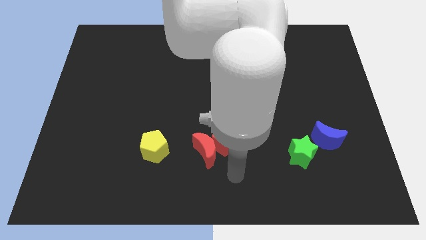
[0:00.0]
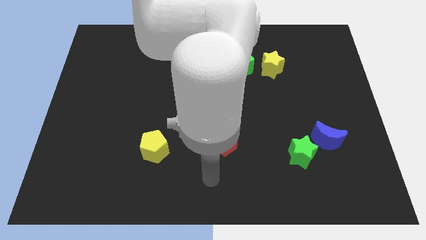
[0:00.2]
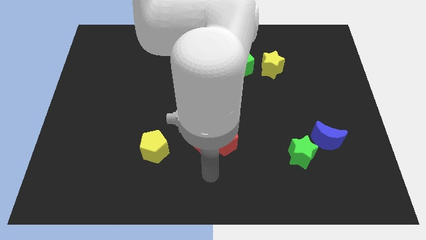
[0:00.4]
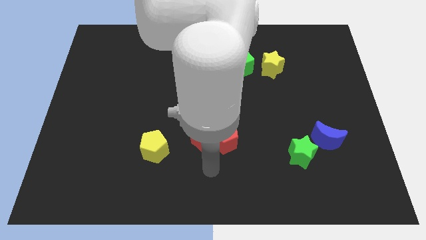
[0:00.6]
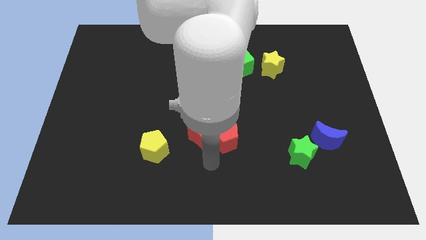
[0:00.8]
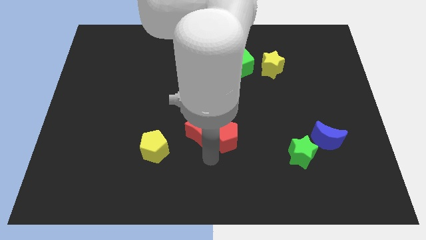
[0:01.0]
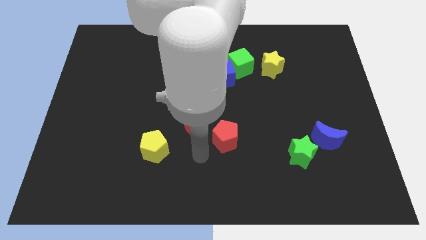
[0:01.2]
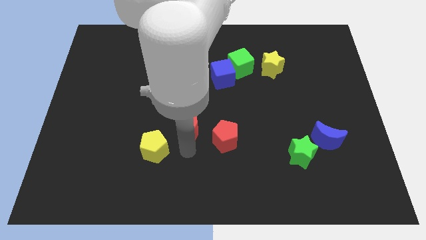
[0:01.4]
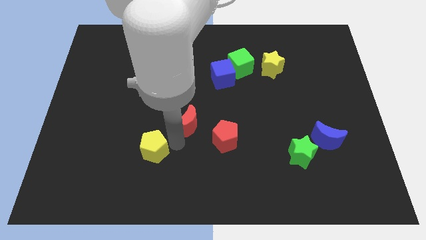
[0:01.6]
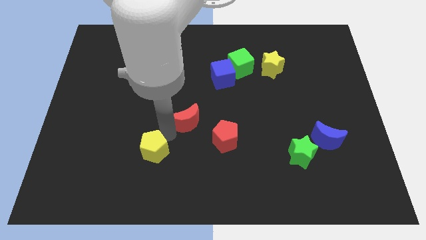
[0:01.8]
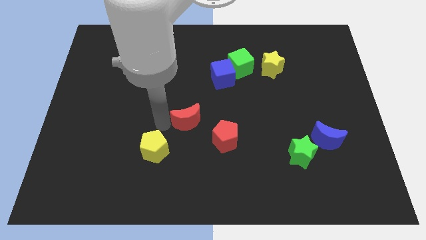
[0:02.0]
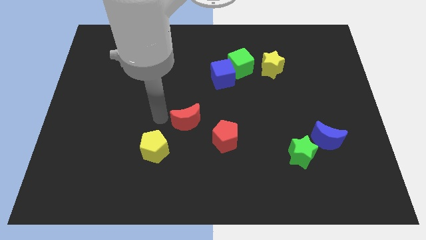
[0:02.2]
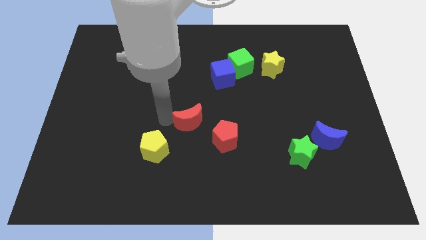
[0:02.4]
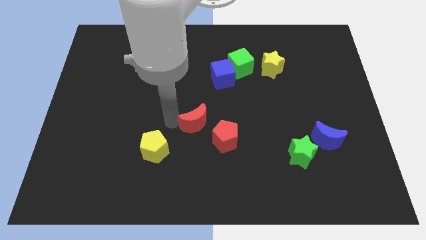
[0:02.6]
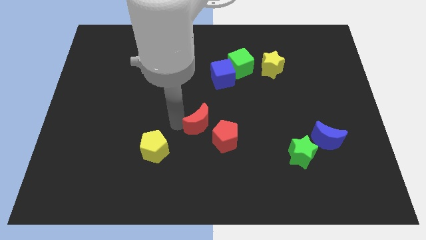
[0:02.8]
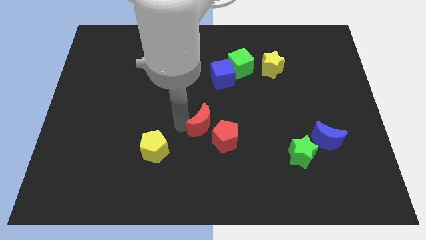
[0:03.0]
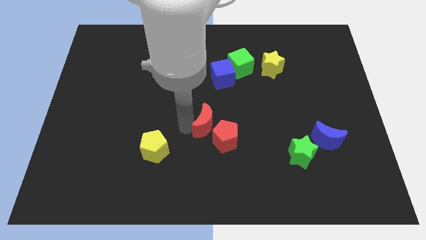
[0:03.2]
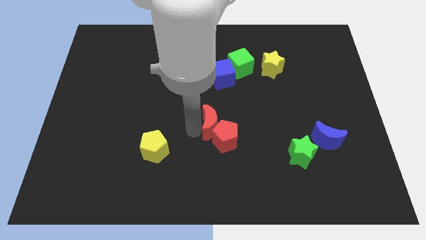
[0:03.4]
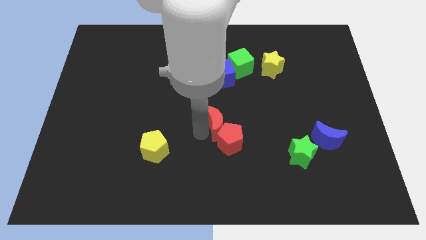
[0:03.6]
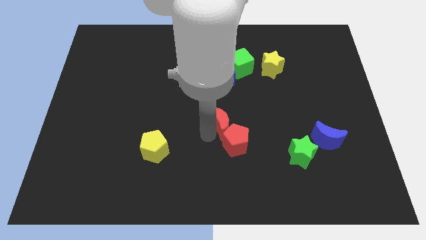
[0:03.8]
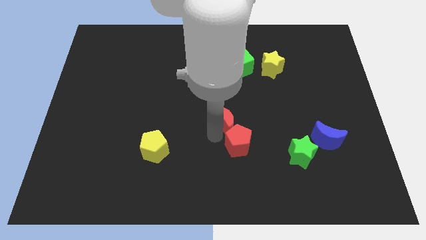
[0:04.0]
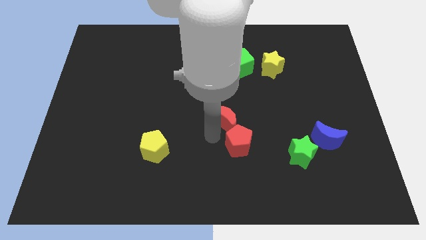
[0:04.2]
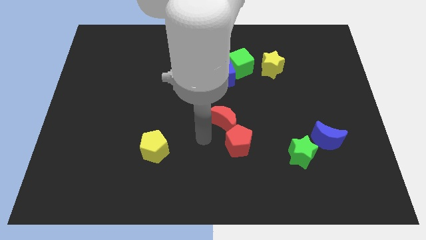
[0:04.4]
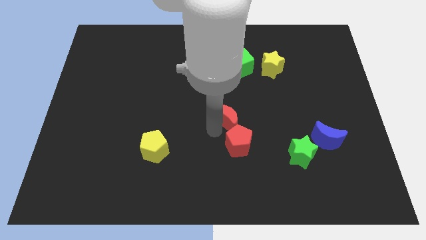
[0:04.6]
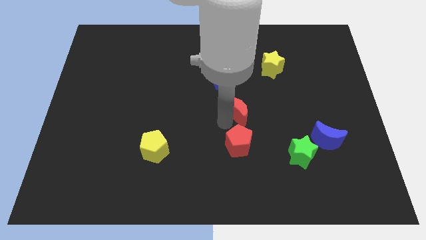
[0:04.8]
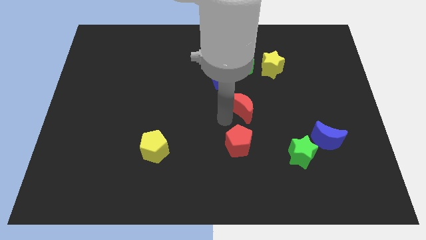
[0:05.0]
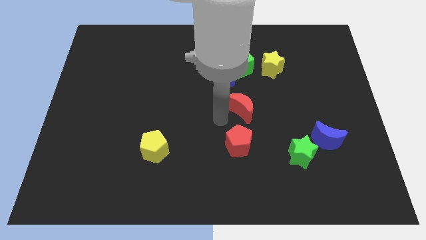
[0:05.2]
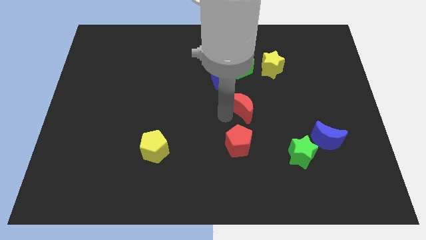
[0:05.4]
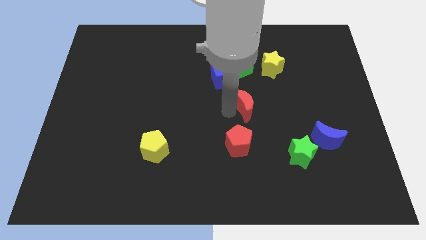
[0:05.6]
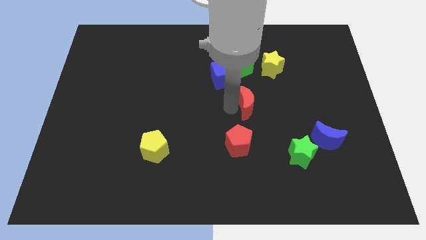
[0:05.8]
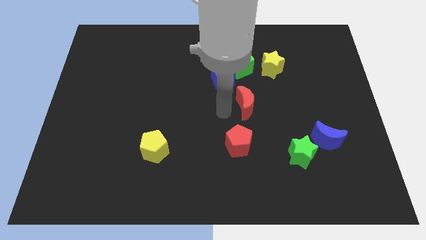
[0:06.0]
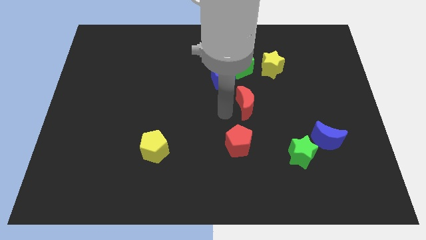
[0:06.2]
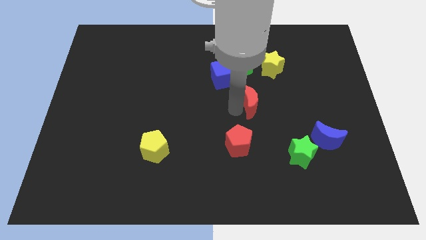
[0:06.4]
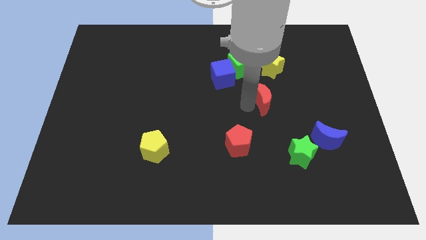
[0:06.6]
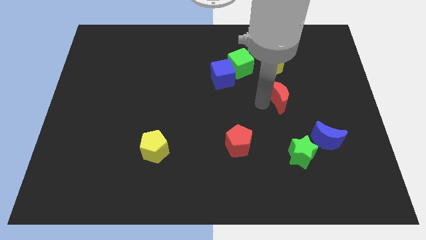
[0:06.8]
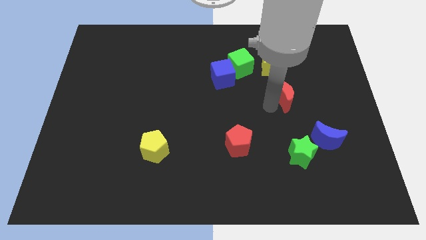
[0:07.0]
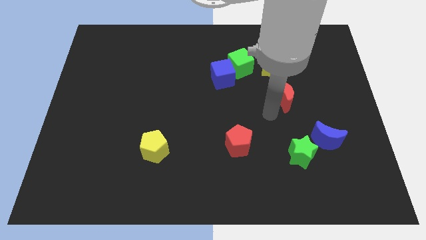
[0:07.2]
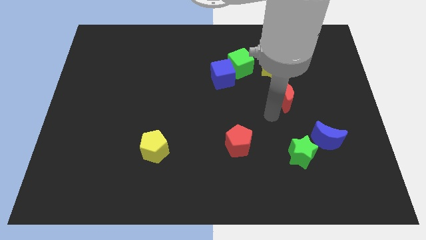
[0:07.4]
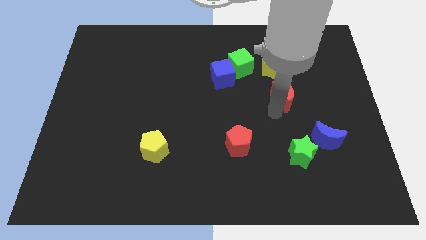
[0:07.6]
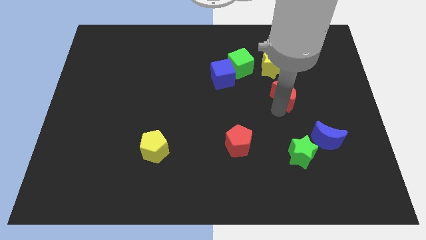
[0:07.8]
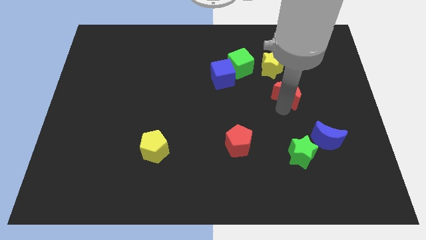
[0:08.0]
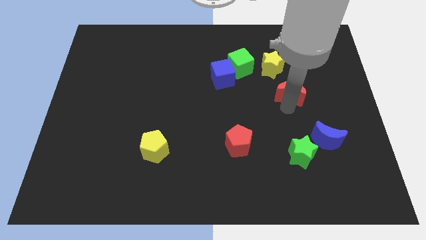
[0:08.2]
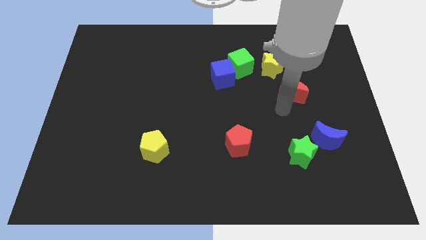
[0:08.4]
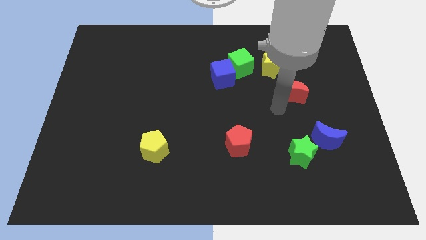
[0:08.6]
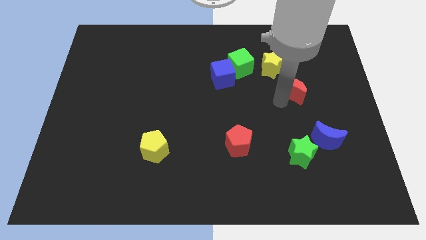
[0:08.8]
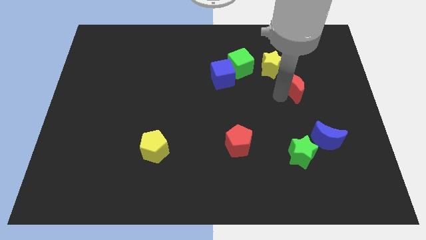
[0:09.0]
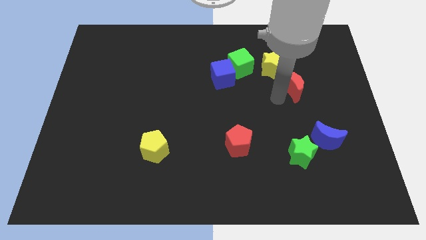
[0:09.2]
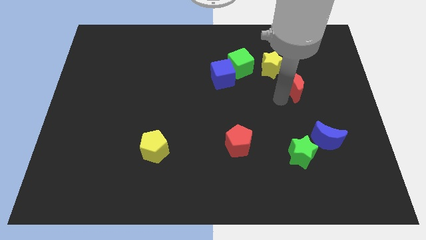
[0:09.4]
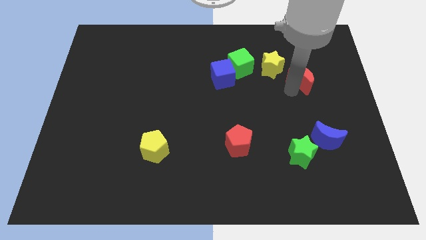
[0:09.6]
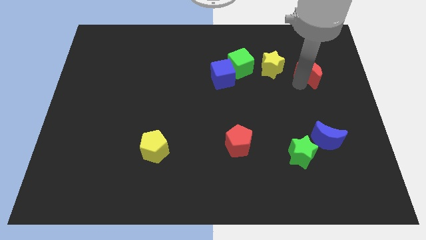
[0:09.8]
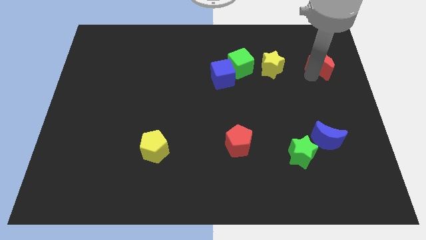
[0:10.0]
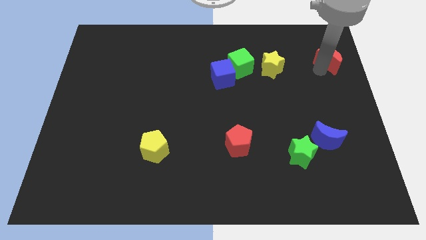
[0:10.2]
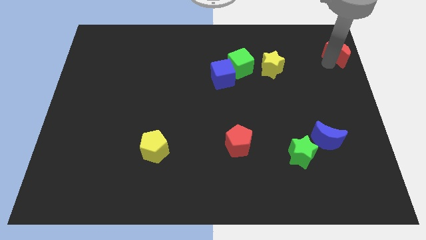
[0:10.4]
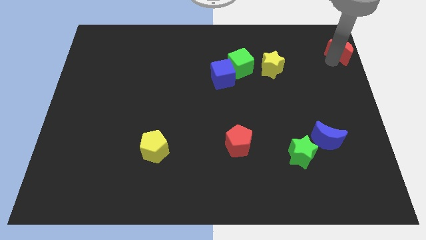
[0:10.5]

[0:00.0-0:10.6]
push the red moon to the top right of the board
